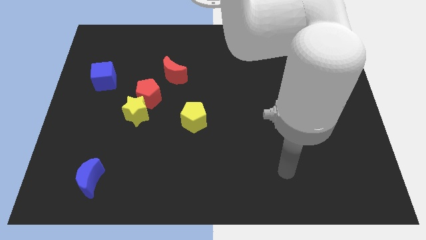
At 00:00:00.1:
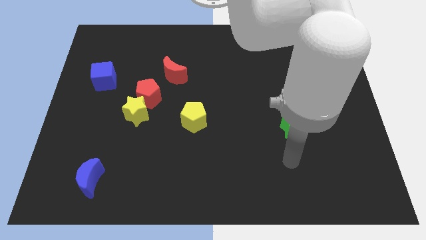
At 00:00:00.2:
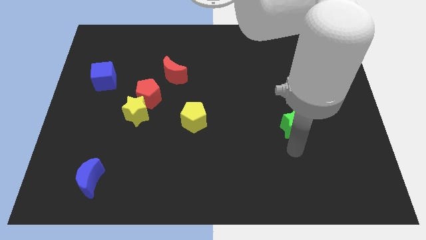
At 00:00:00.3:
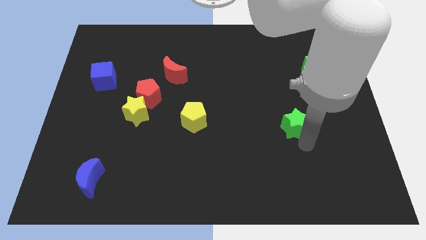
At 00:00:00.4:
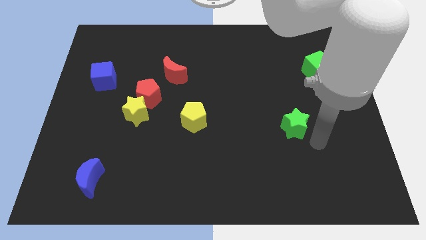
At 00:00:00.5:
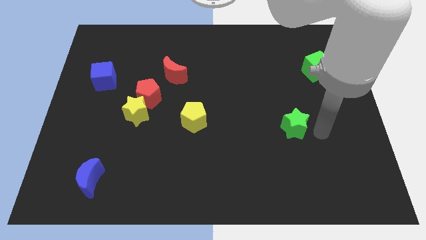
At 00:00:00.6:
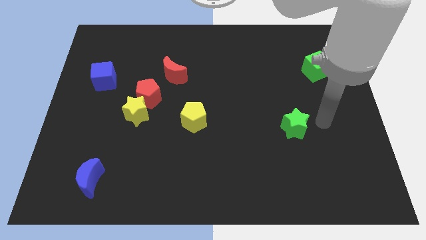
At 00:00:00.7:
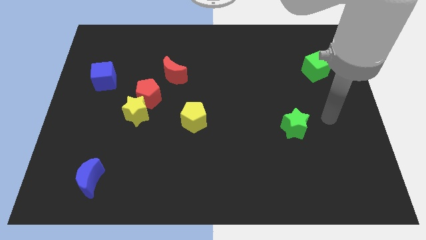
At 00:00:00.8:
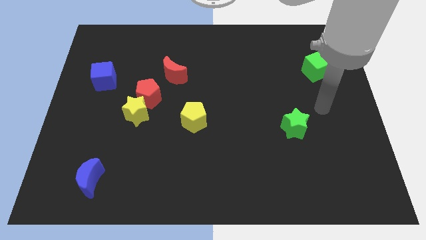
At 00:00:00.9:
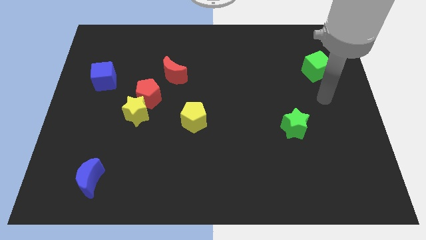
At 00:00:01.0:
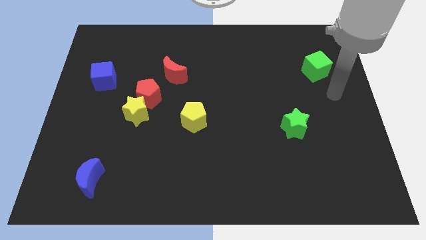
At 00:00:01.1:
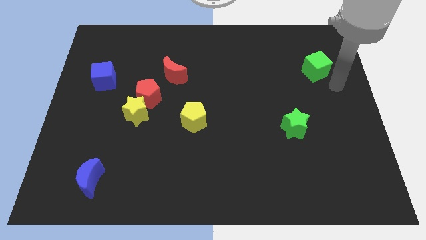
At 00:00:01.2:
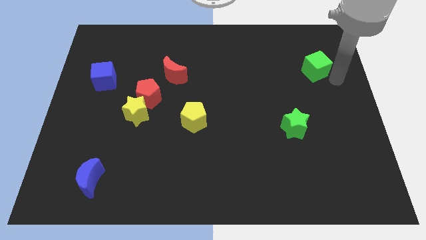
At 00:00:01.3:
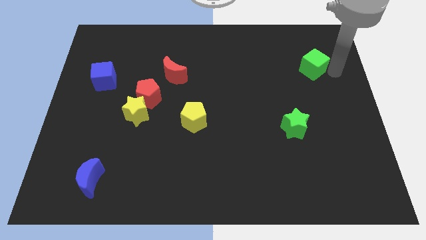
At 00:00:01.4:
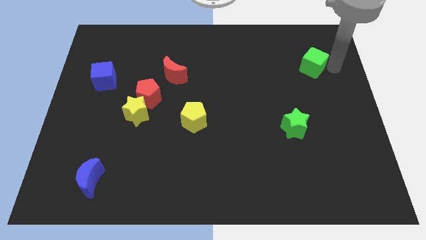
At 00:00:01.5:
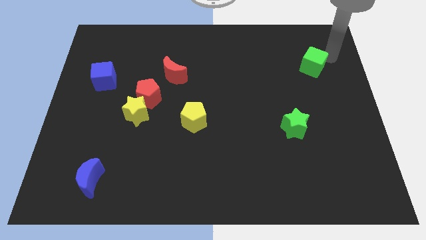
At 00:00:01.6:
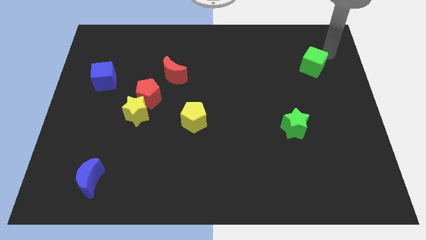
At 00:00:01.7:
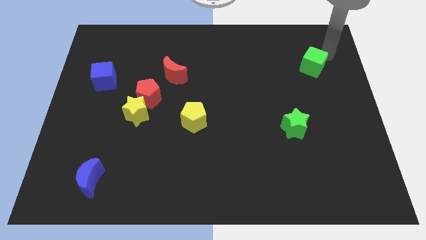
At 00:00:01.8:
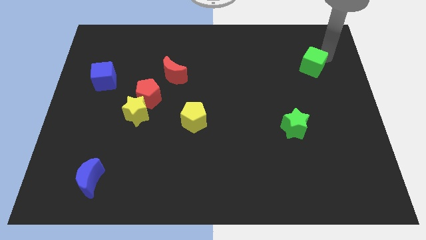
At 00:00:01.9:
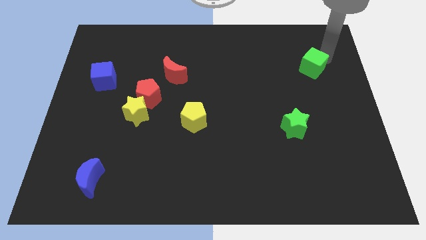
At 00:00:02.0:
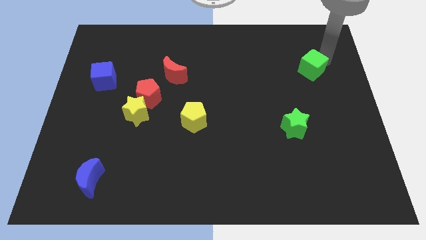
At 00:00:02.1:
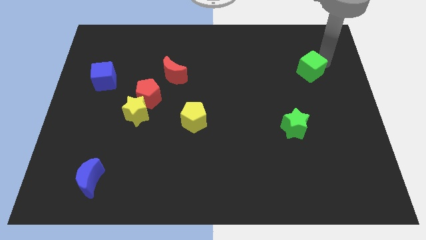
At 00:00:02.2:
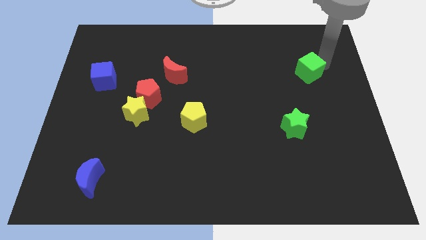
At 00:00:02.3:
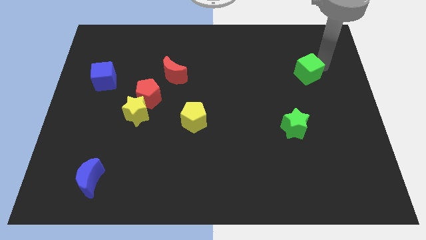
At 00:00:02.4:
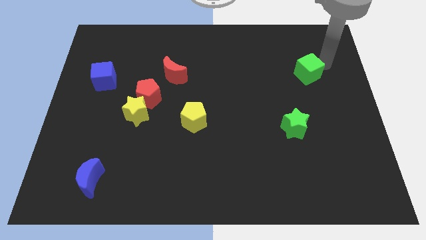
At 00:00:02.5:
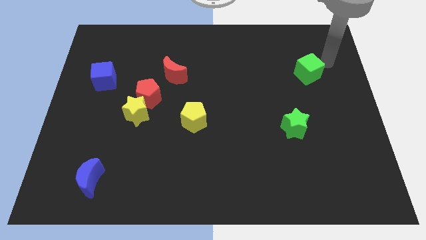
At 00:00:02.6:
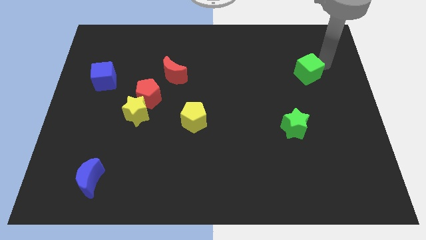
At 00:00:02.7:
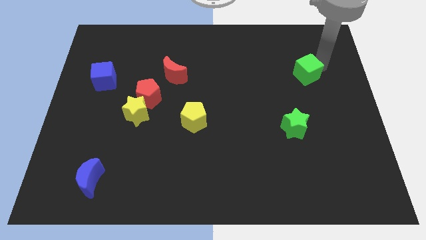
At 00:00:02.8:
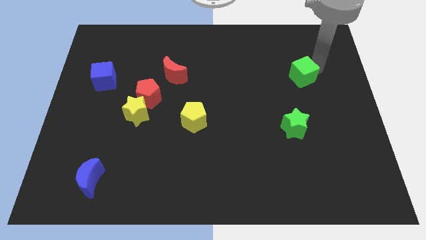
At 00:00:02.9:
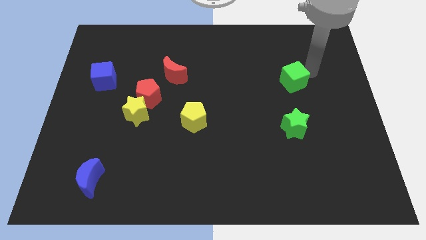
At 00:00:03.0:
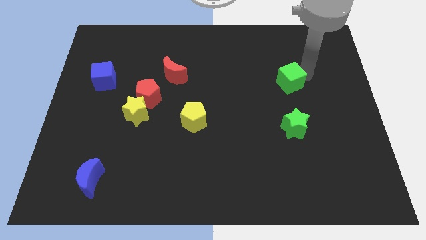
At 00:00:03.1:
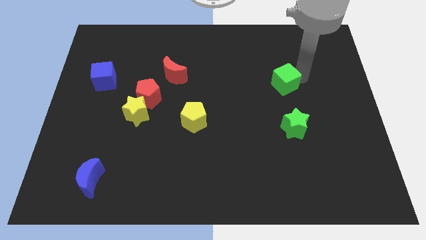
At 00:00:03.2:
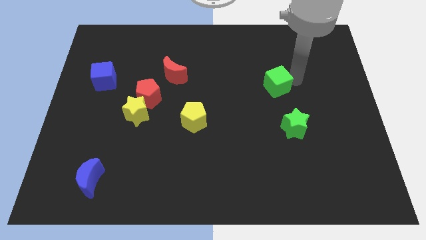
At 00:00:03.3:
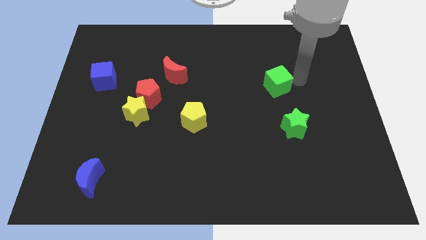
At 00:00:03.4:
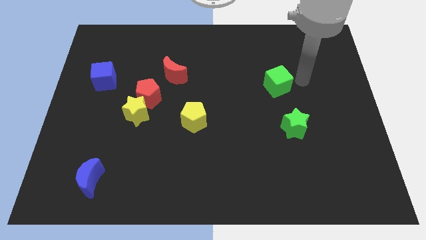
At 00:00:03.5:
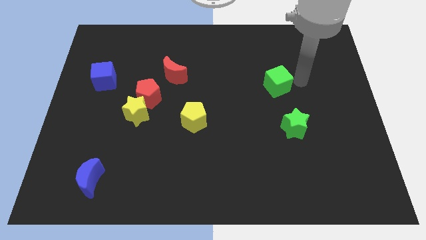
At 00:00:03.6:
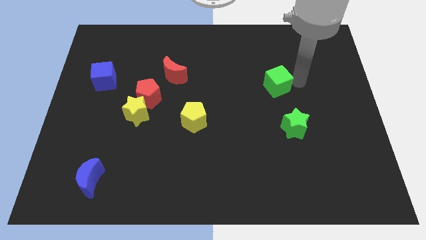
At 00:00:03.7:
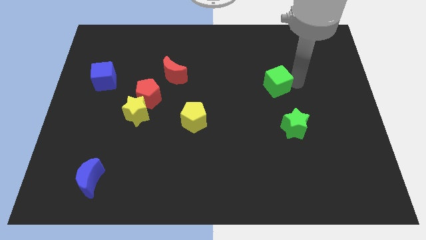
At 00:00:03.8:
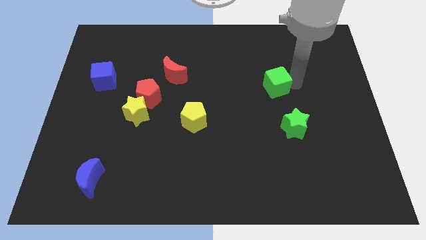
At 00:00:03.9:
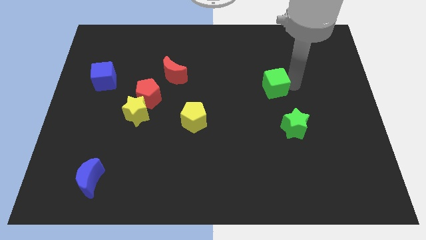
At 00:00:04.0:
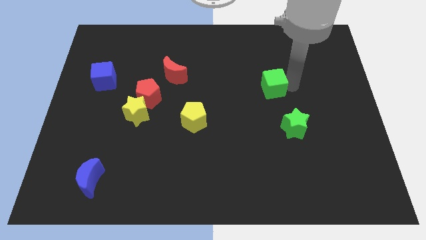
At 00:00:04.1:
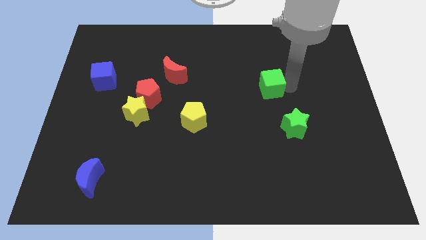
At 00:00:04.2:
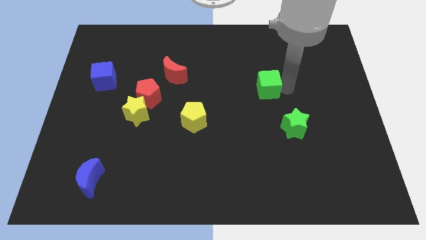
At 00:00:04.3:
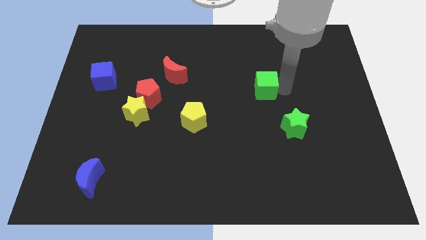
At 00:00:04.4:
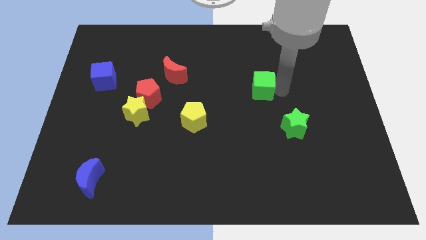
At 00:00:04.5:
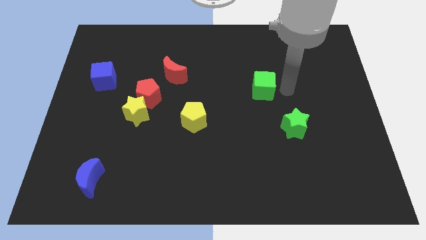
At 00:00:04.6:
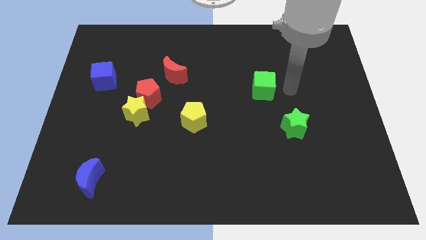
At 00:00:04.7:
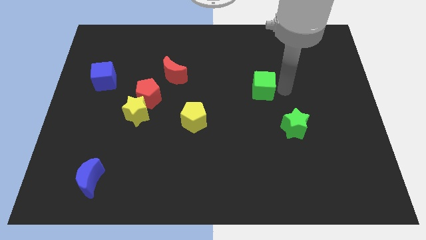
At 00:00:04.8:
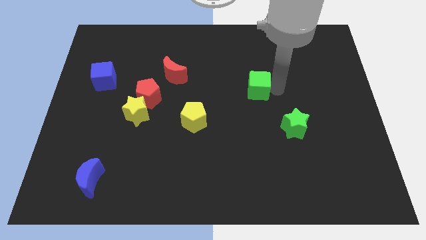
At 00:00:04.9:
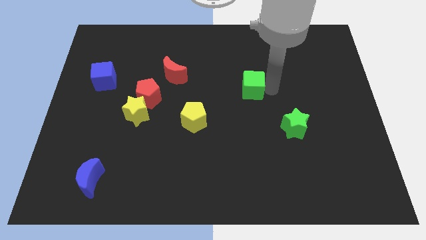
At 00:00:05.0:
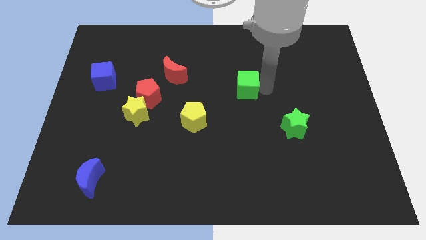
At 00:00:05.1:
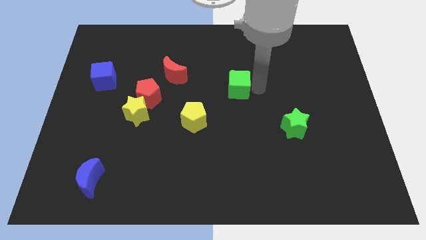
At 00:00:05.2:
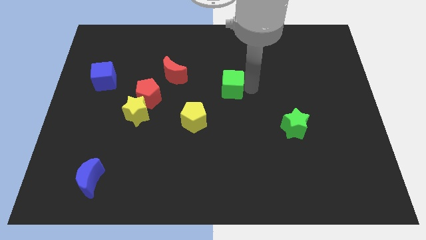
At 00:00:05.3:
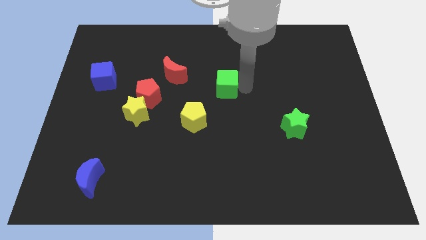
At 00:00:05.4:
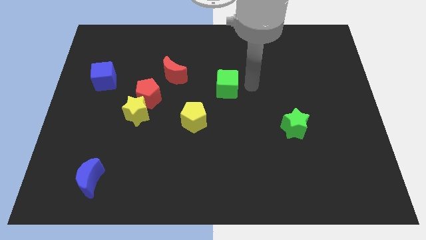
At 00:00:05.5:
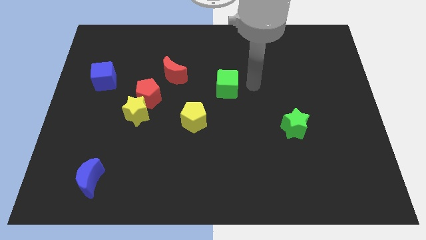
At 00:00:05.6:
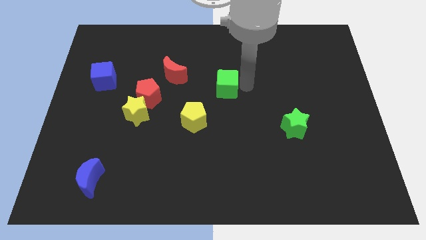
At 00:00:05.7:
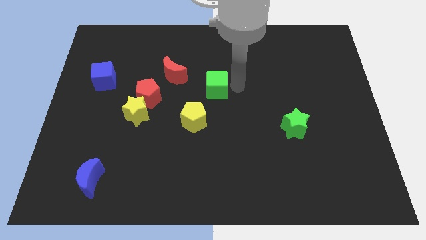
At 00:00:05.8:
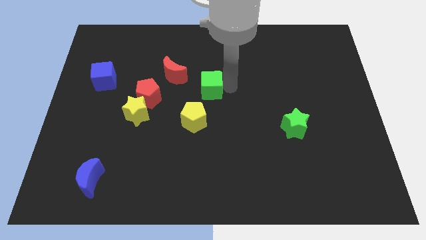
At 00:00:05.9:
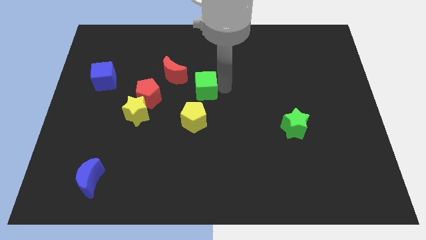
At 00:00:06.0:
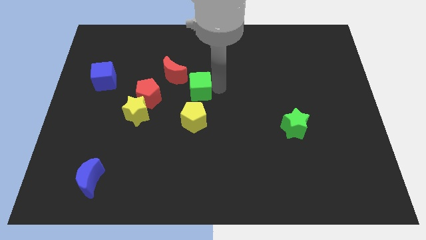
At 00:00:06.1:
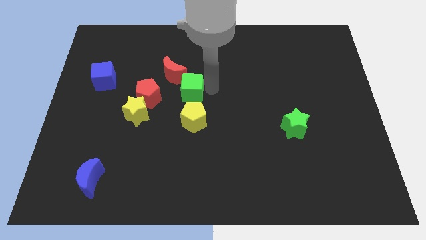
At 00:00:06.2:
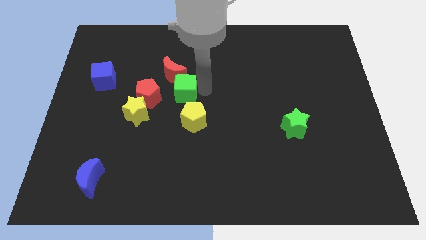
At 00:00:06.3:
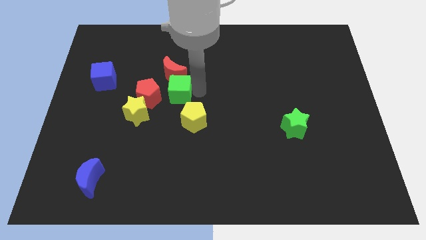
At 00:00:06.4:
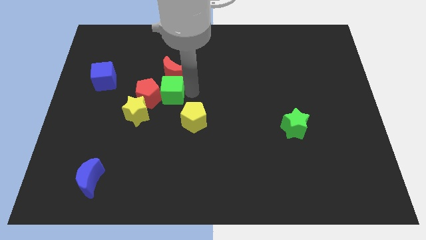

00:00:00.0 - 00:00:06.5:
slide the green cube towards the red pentagon

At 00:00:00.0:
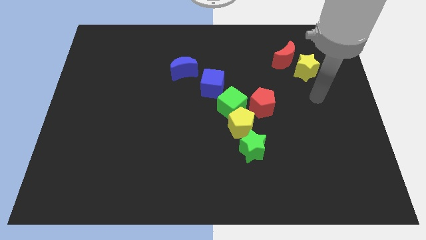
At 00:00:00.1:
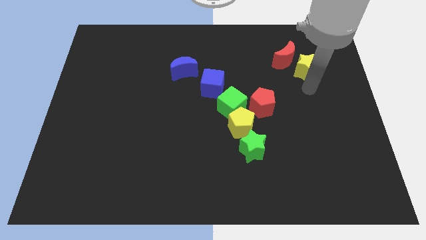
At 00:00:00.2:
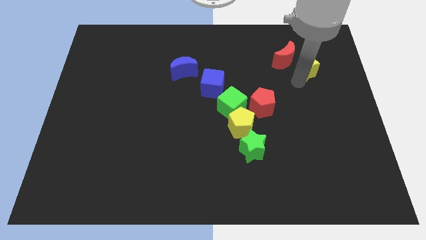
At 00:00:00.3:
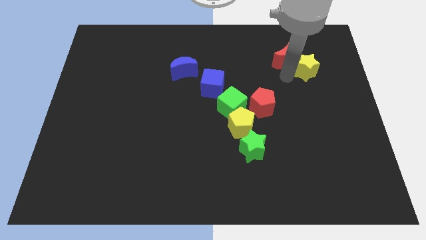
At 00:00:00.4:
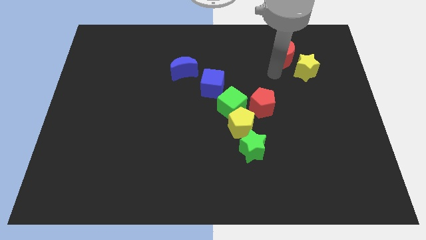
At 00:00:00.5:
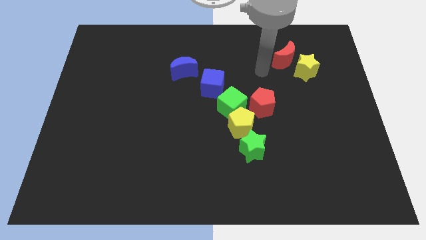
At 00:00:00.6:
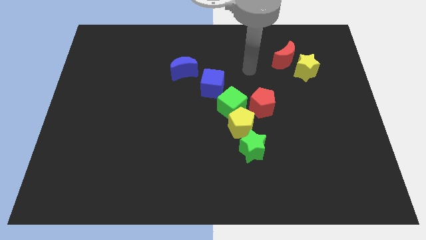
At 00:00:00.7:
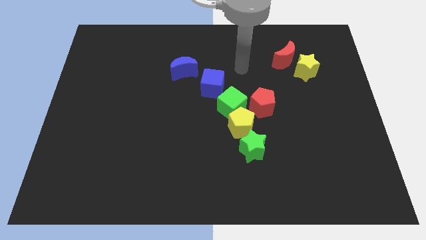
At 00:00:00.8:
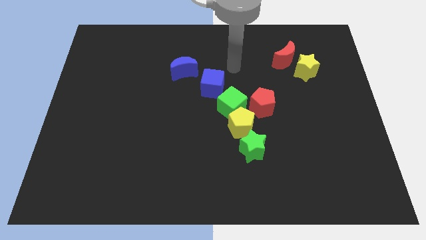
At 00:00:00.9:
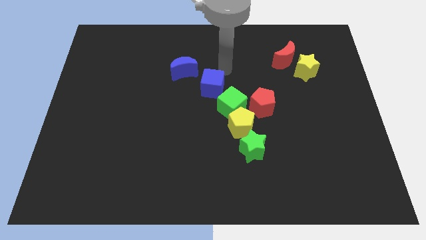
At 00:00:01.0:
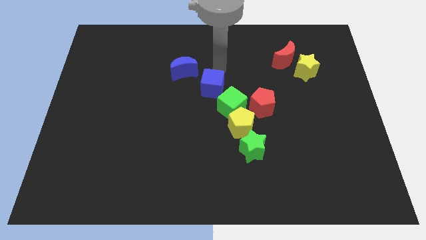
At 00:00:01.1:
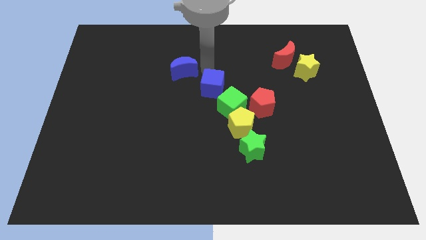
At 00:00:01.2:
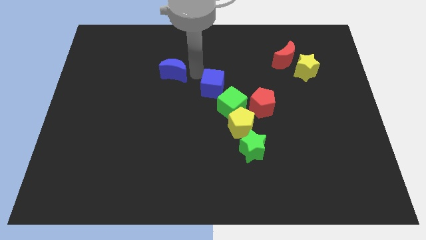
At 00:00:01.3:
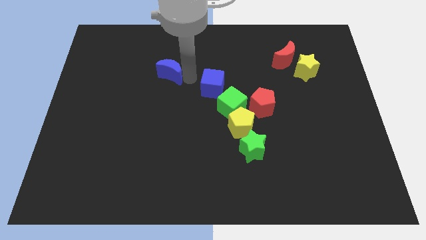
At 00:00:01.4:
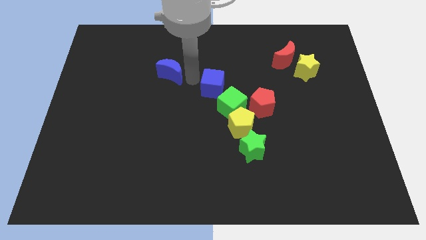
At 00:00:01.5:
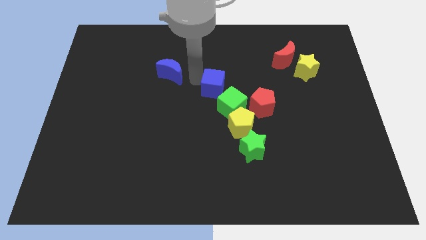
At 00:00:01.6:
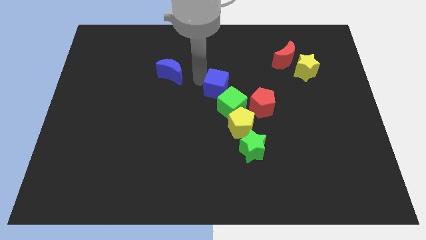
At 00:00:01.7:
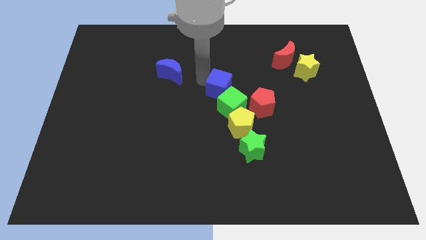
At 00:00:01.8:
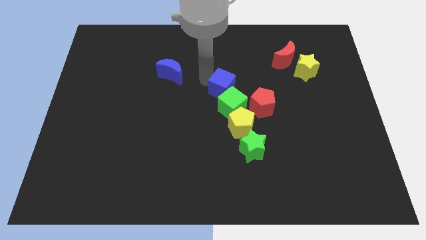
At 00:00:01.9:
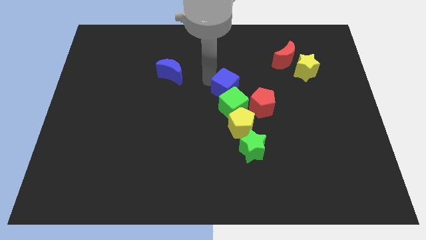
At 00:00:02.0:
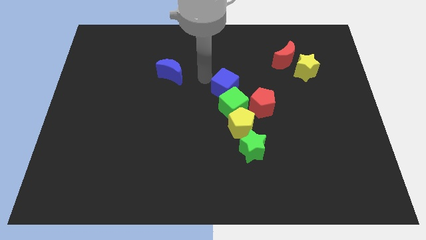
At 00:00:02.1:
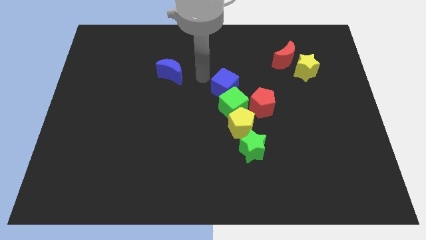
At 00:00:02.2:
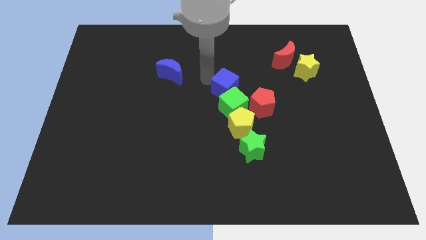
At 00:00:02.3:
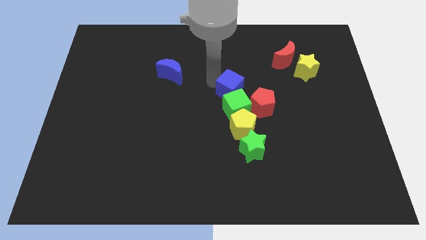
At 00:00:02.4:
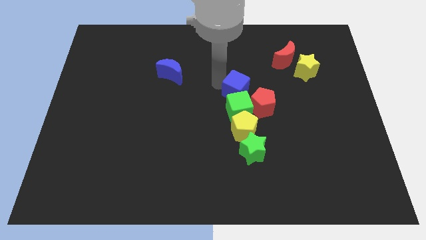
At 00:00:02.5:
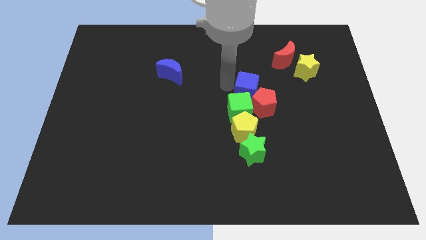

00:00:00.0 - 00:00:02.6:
move the blue cube to the red pentagon
